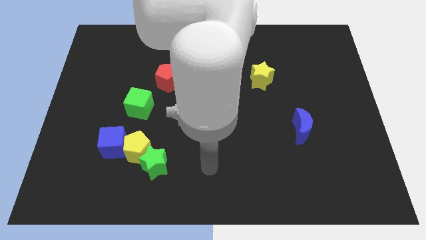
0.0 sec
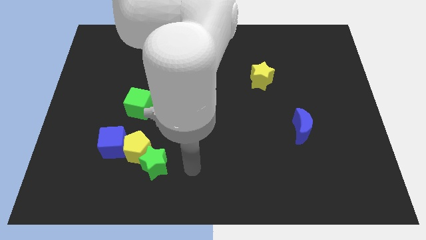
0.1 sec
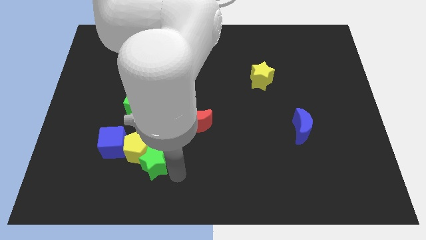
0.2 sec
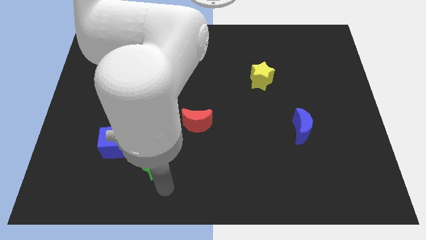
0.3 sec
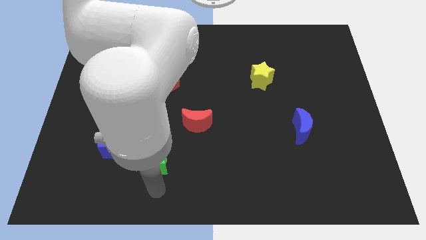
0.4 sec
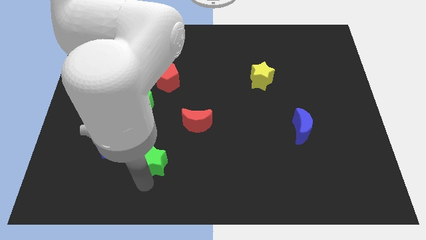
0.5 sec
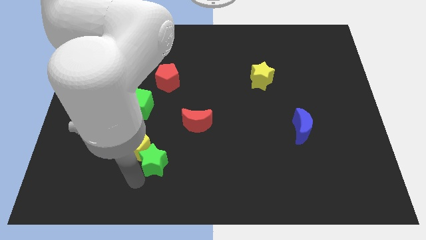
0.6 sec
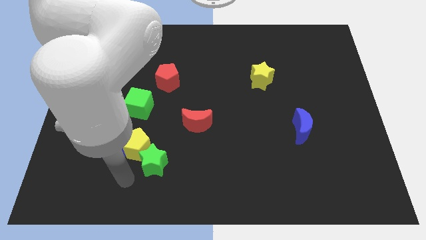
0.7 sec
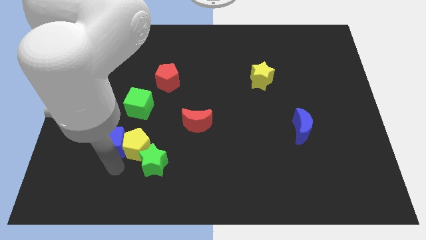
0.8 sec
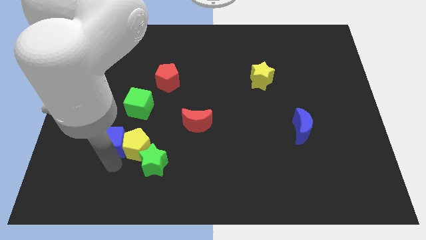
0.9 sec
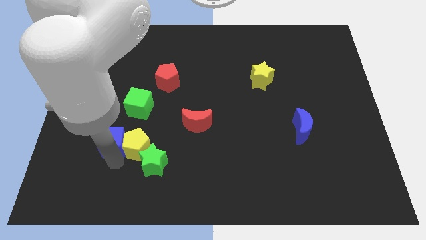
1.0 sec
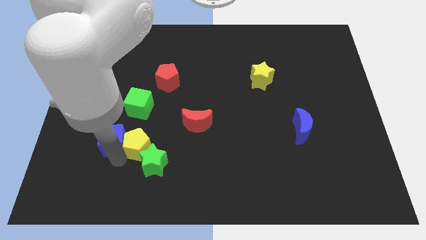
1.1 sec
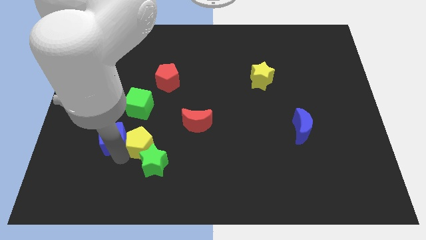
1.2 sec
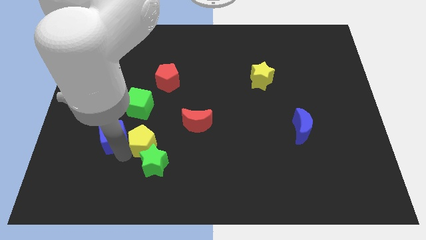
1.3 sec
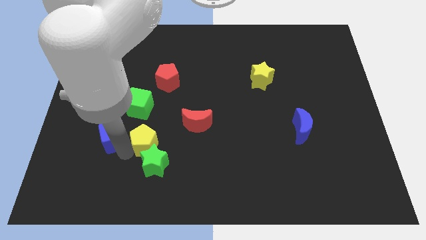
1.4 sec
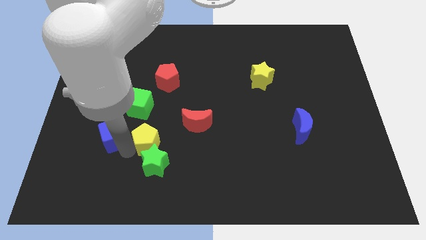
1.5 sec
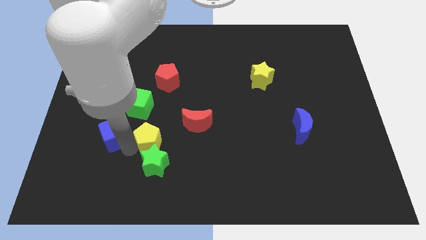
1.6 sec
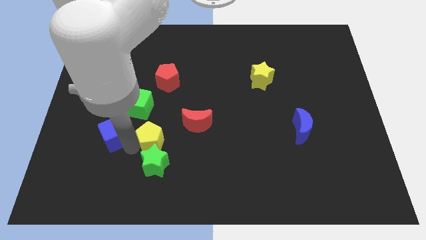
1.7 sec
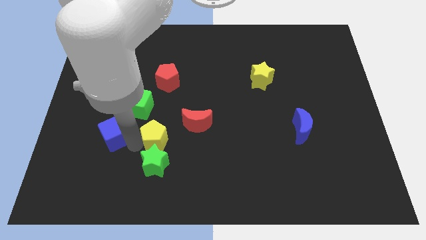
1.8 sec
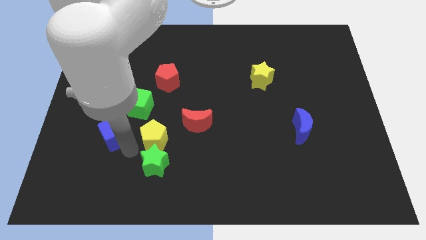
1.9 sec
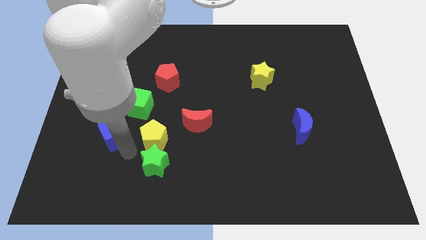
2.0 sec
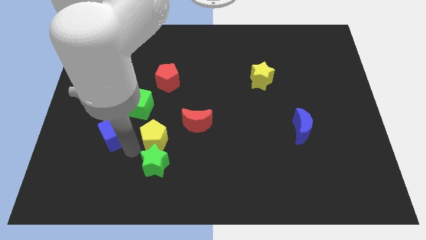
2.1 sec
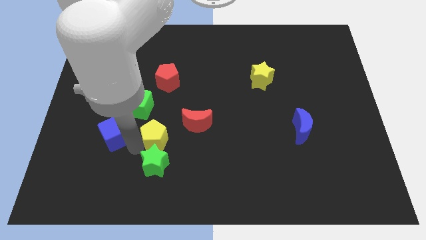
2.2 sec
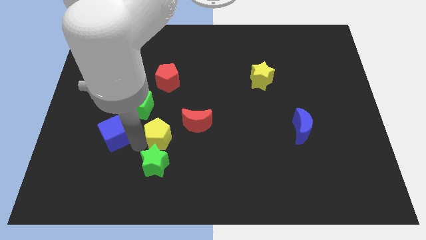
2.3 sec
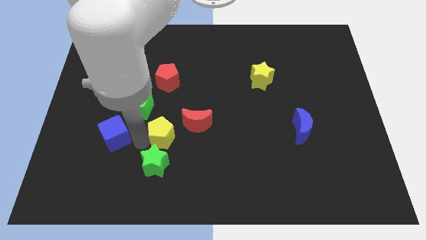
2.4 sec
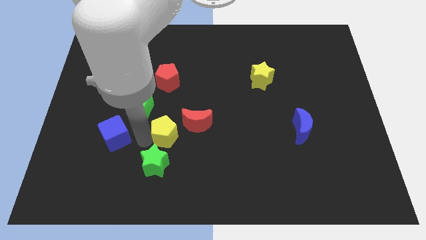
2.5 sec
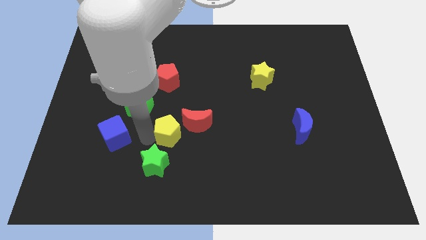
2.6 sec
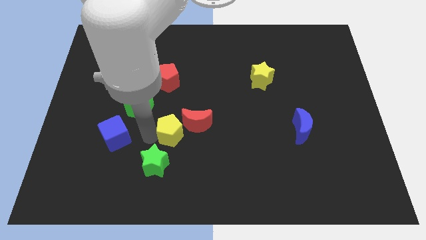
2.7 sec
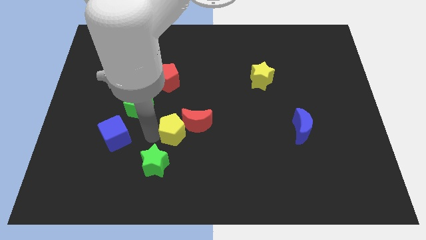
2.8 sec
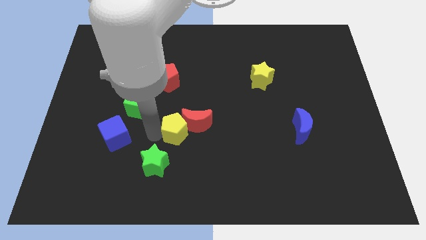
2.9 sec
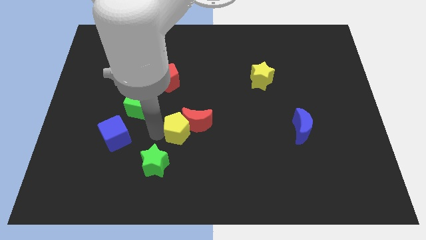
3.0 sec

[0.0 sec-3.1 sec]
separate the yellow pentagon from the green star and blue cube

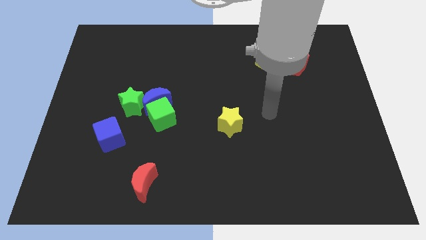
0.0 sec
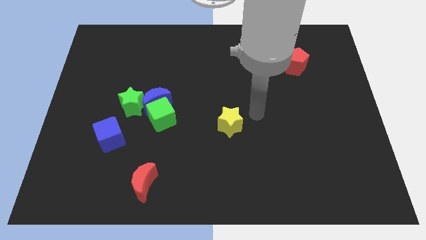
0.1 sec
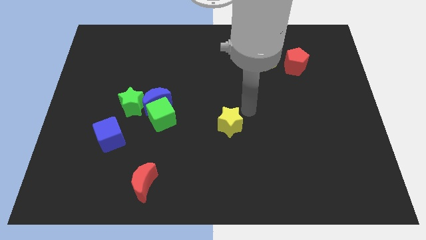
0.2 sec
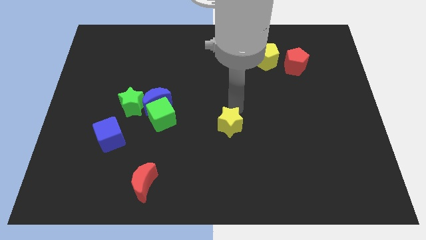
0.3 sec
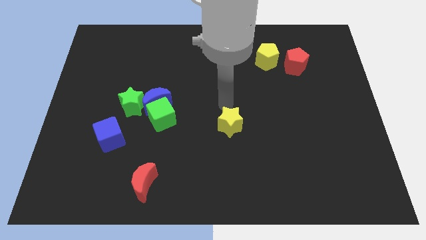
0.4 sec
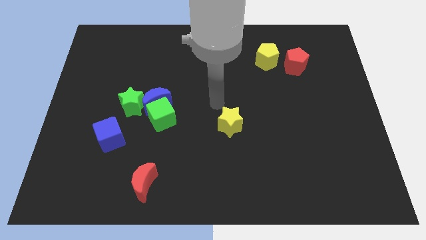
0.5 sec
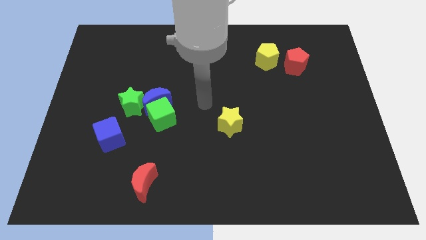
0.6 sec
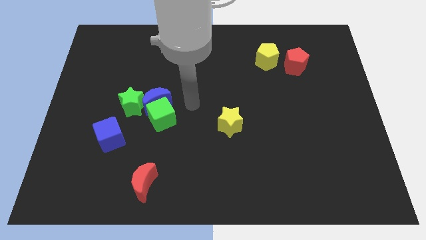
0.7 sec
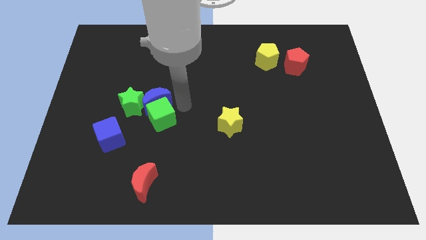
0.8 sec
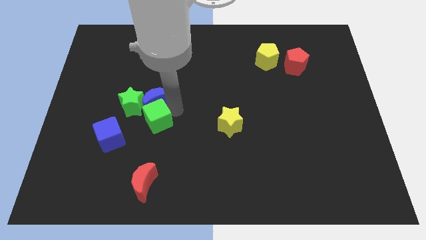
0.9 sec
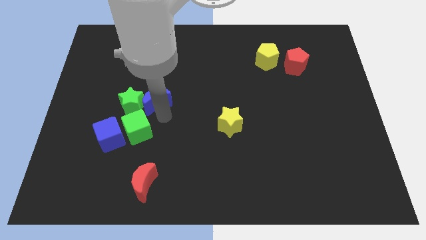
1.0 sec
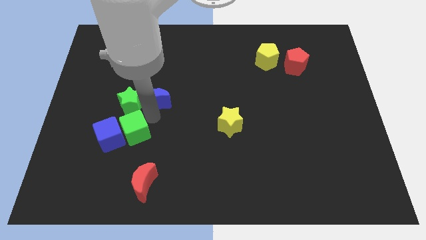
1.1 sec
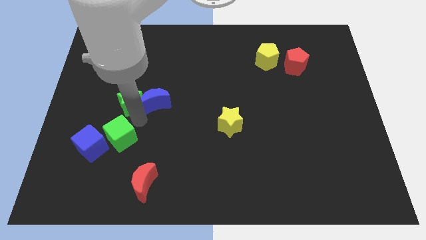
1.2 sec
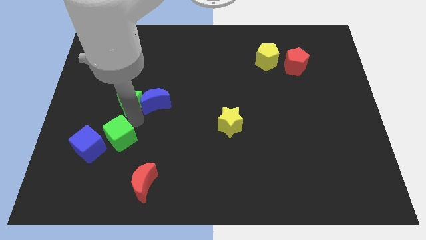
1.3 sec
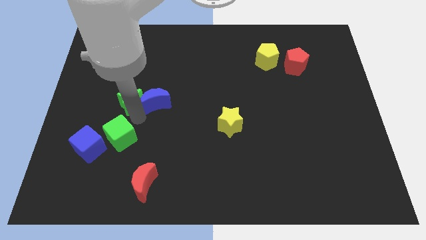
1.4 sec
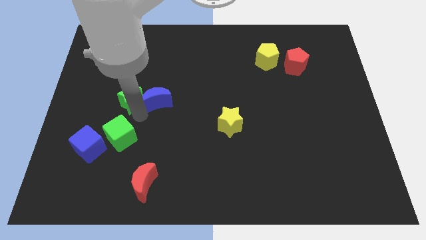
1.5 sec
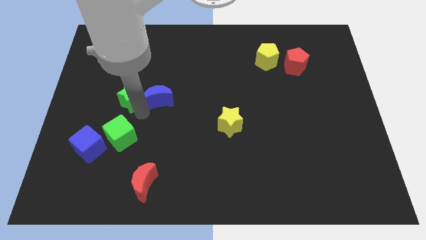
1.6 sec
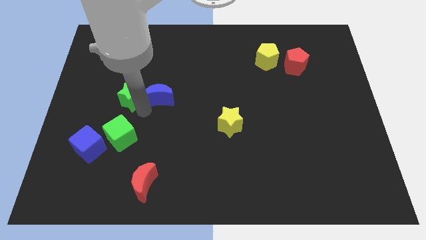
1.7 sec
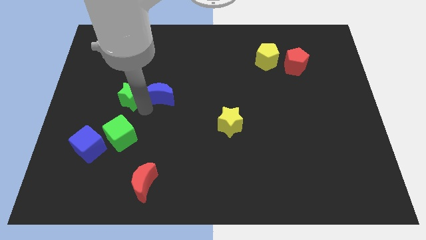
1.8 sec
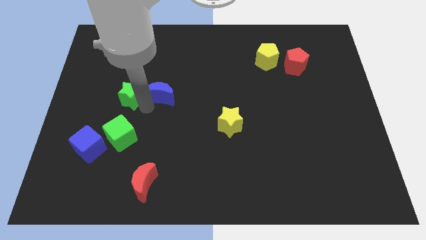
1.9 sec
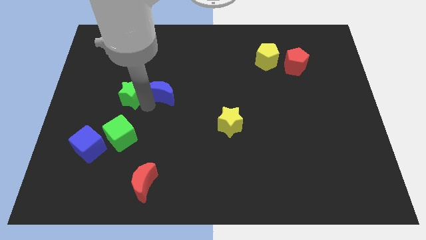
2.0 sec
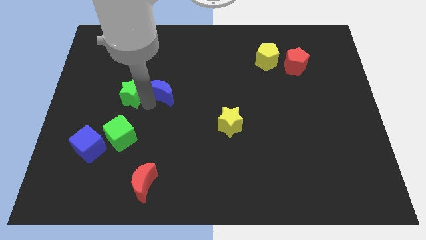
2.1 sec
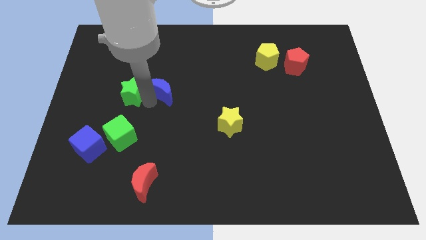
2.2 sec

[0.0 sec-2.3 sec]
move the blue moon away from the green cube and green star

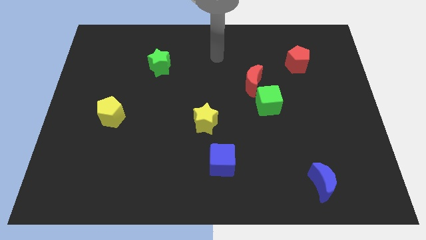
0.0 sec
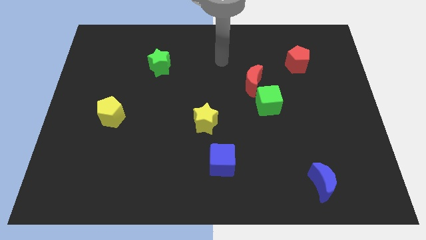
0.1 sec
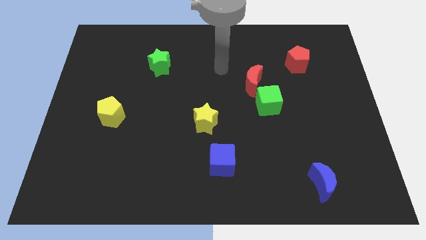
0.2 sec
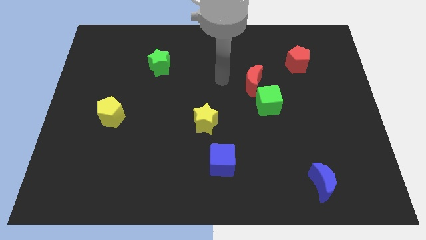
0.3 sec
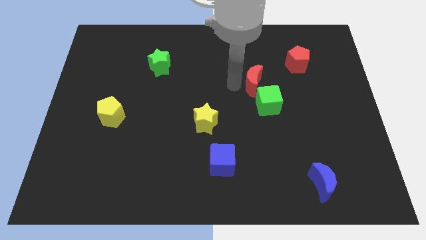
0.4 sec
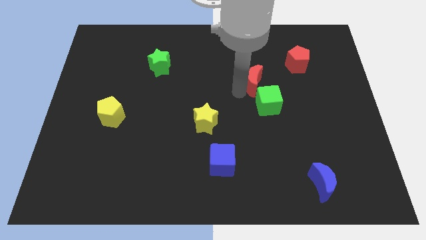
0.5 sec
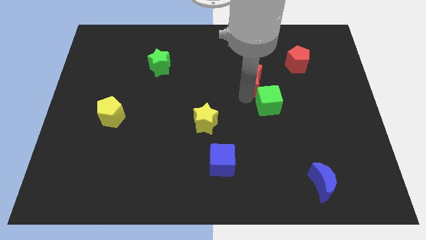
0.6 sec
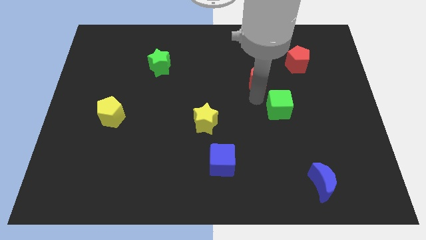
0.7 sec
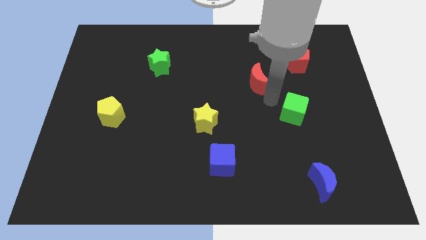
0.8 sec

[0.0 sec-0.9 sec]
separate the red moon from the green cube

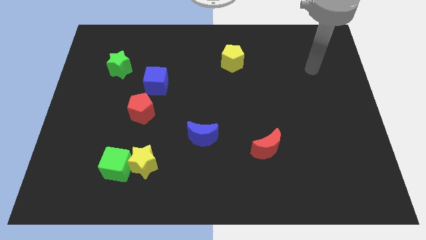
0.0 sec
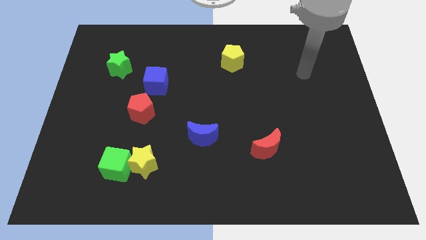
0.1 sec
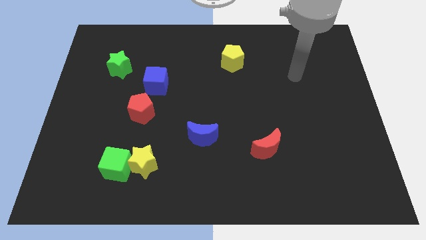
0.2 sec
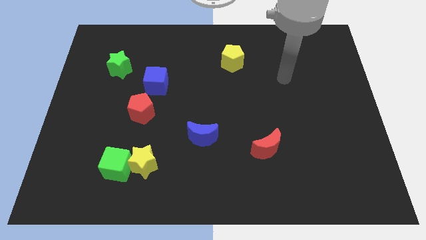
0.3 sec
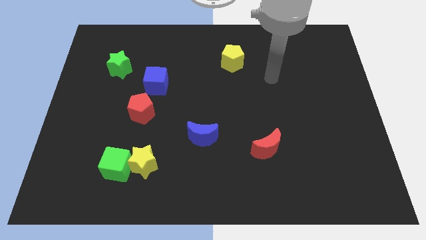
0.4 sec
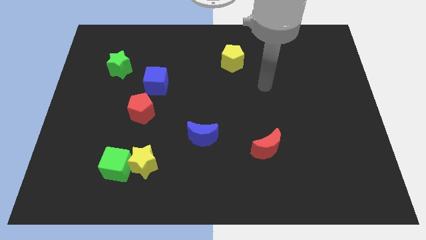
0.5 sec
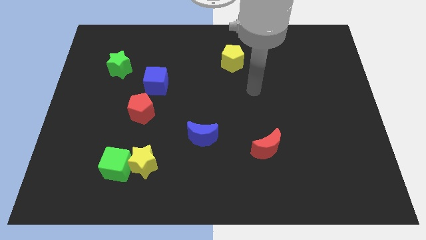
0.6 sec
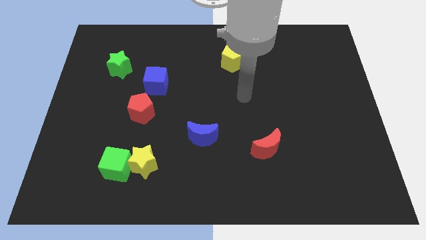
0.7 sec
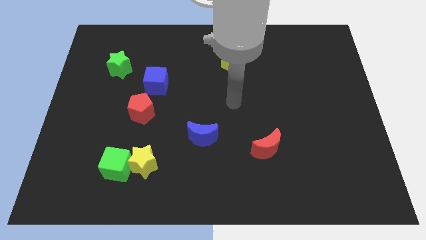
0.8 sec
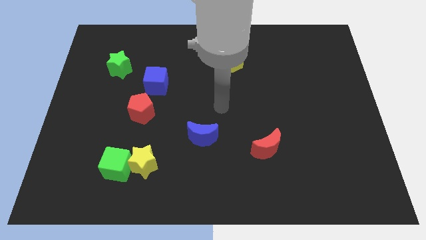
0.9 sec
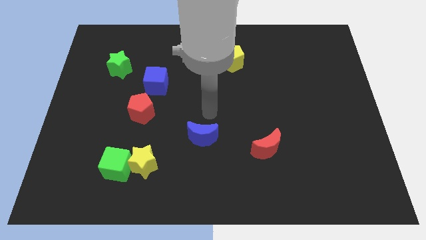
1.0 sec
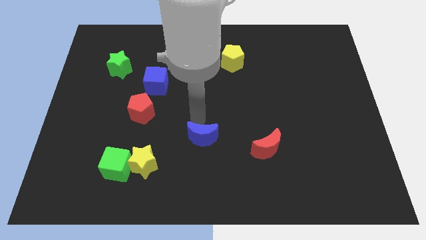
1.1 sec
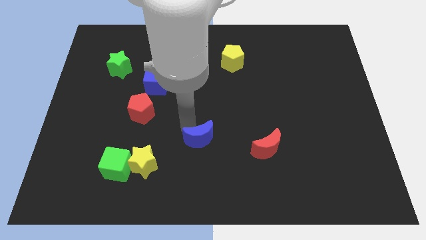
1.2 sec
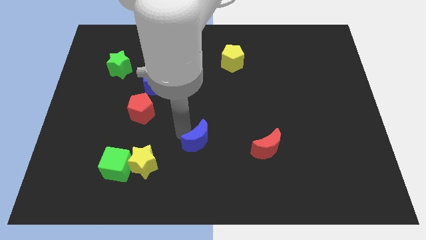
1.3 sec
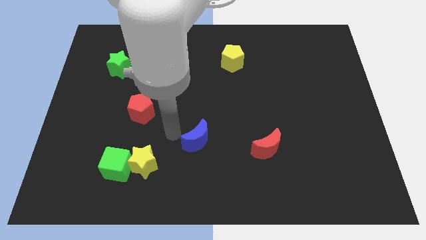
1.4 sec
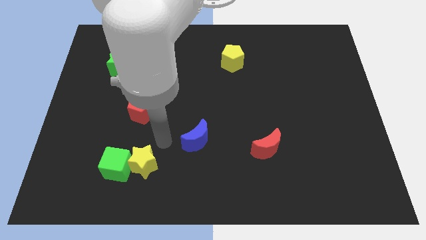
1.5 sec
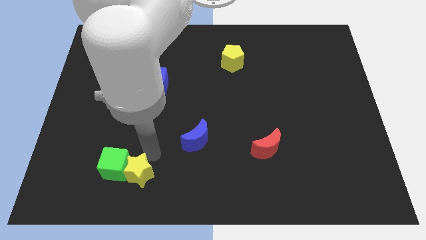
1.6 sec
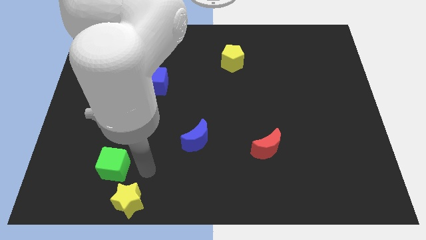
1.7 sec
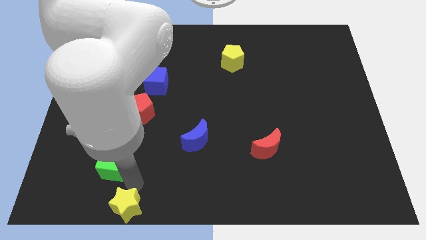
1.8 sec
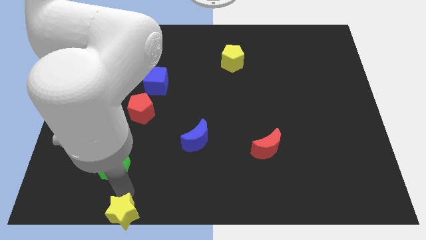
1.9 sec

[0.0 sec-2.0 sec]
move the green cube away from the yellow star

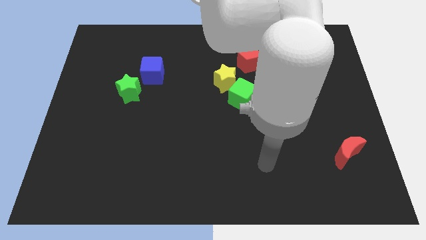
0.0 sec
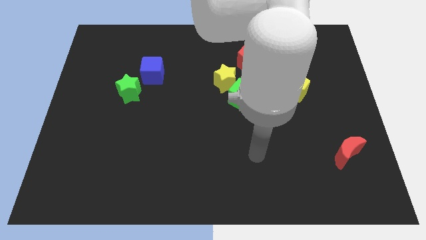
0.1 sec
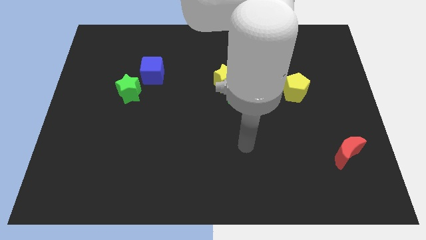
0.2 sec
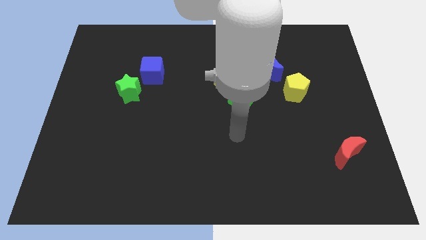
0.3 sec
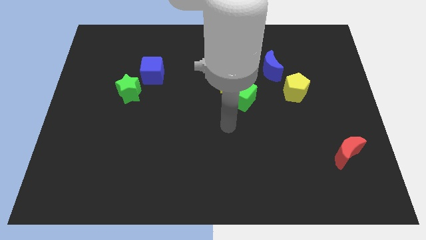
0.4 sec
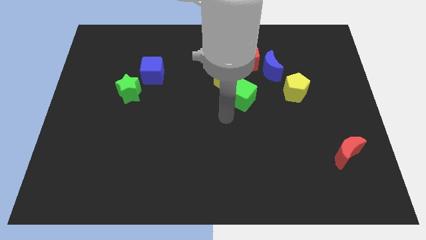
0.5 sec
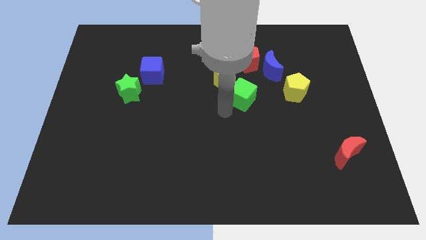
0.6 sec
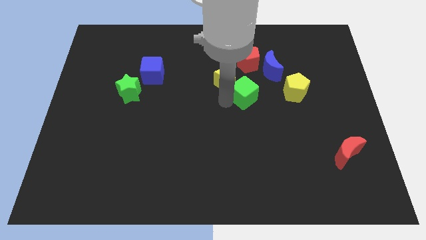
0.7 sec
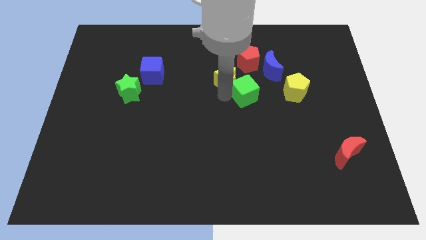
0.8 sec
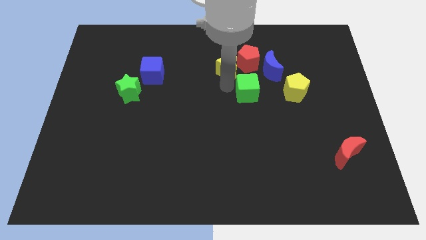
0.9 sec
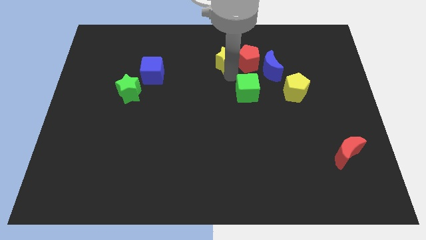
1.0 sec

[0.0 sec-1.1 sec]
separate the green cube from the yellow star
